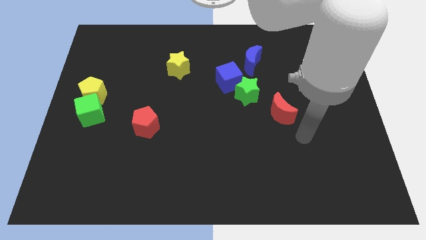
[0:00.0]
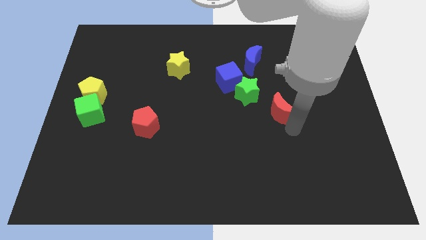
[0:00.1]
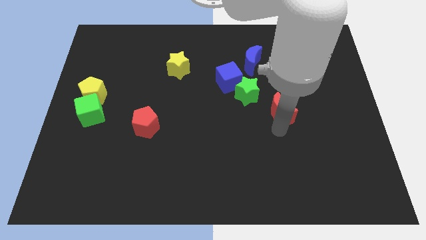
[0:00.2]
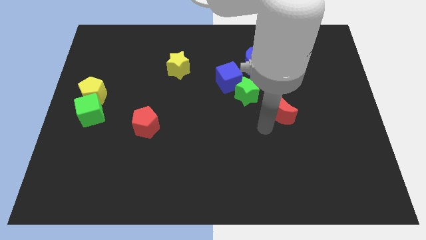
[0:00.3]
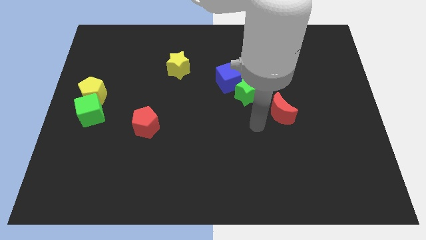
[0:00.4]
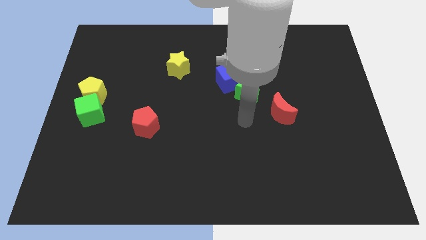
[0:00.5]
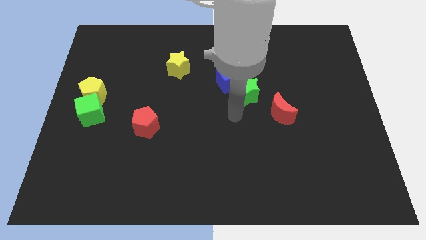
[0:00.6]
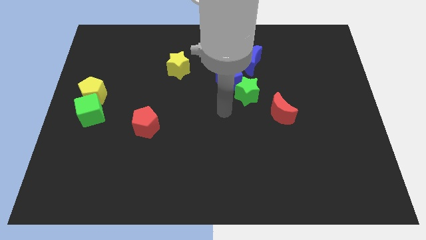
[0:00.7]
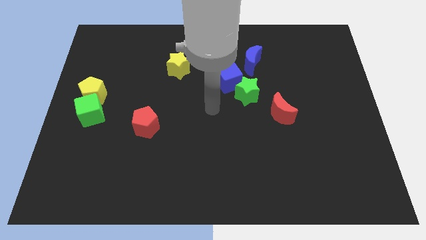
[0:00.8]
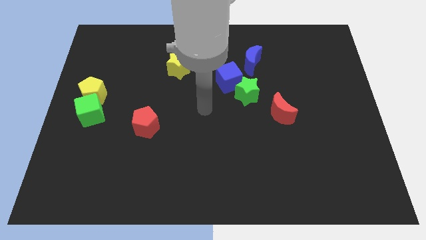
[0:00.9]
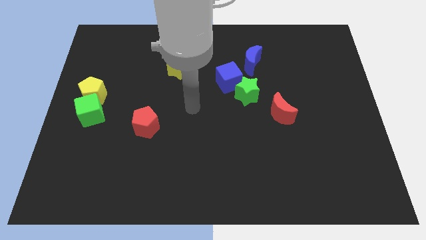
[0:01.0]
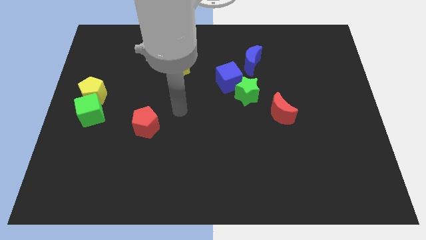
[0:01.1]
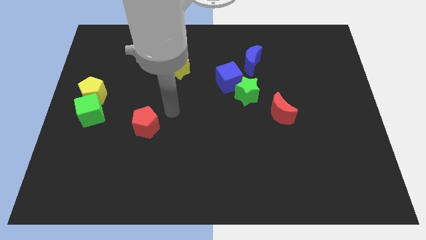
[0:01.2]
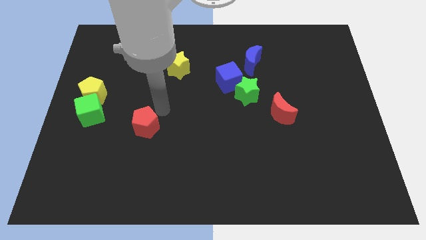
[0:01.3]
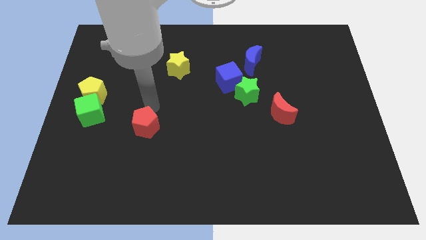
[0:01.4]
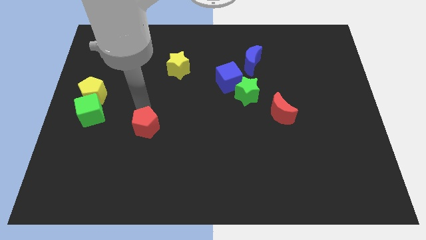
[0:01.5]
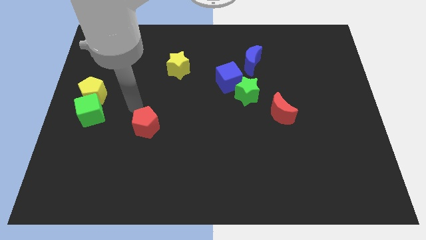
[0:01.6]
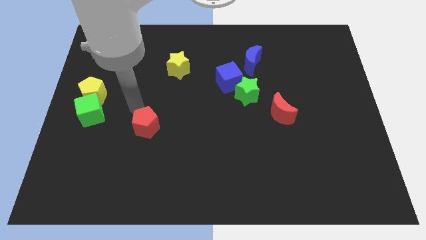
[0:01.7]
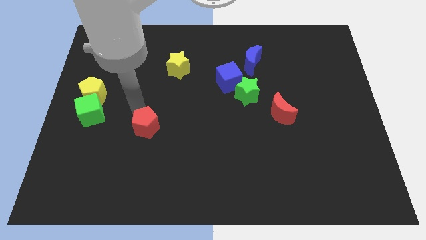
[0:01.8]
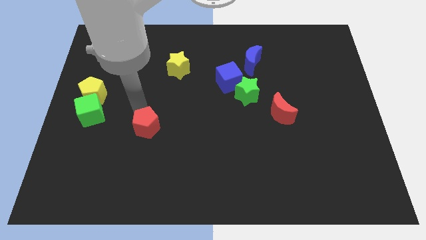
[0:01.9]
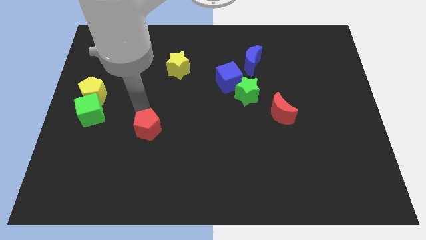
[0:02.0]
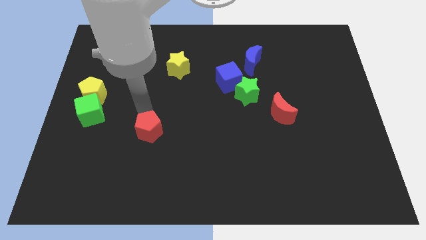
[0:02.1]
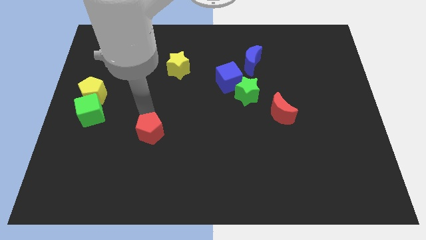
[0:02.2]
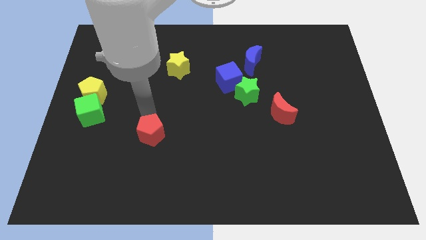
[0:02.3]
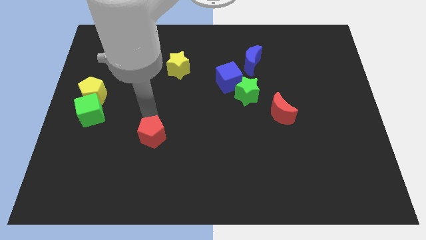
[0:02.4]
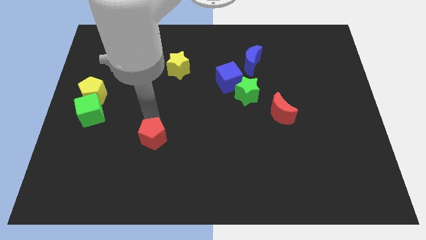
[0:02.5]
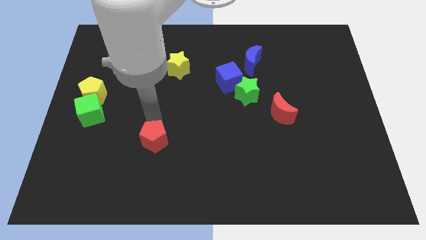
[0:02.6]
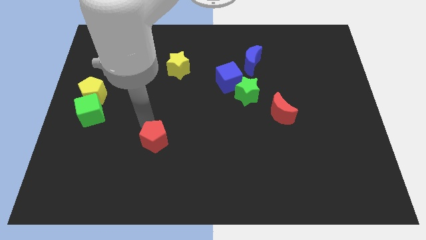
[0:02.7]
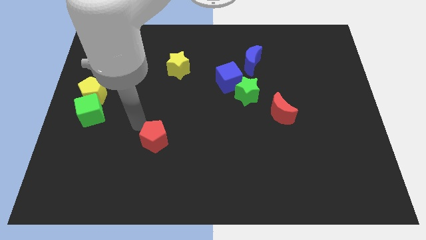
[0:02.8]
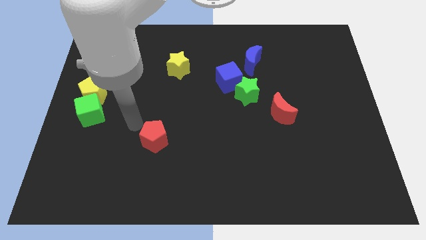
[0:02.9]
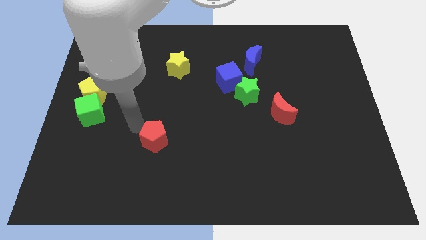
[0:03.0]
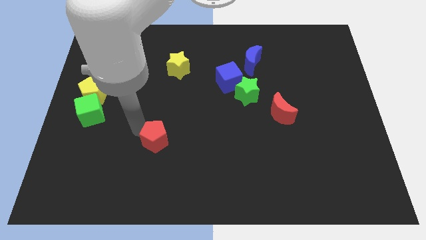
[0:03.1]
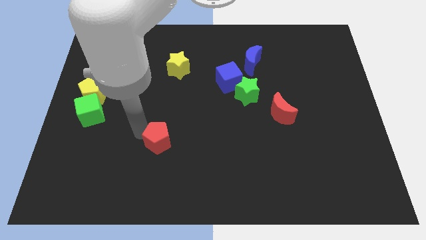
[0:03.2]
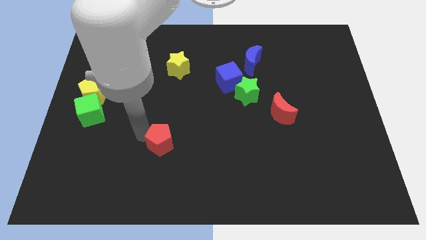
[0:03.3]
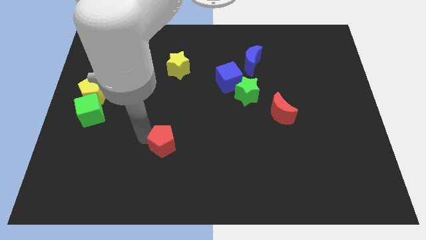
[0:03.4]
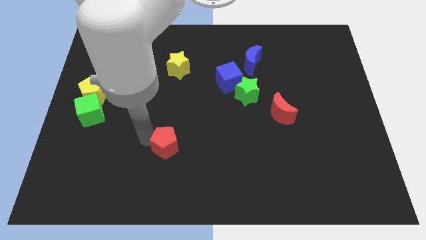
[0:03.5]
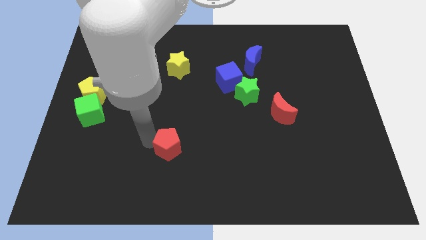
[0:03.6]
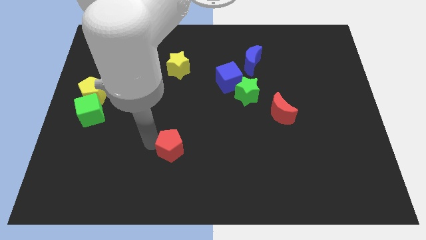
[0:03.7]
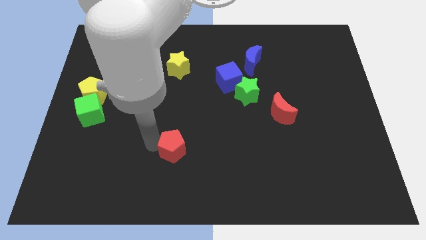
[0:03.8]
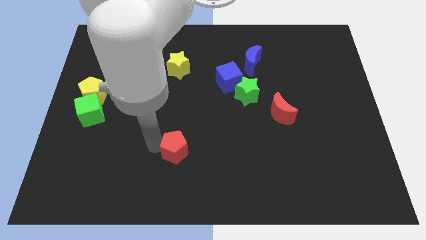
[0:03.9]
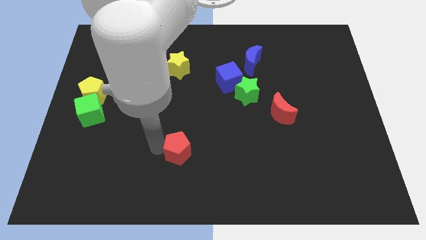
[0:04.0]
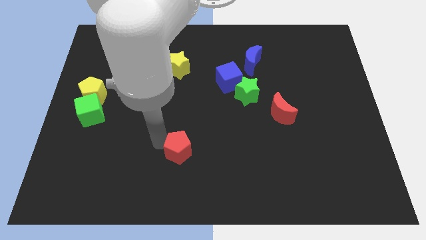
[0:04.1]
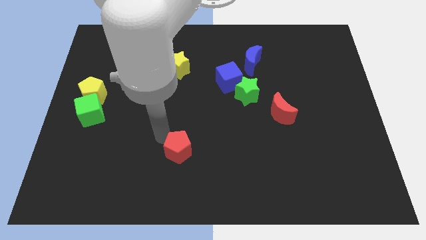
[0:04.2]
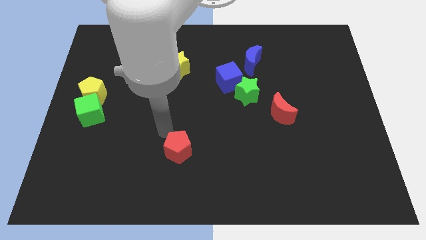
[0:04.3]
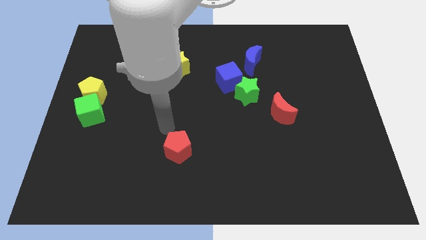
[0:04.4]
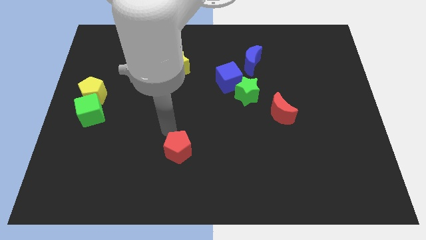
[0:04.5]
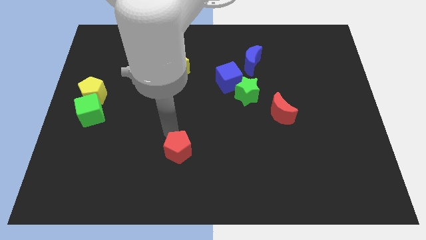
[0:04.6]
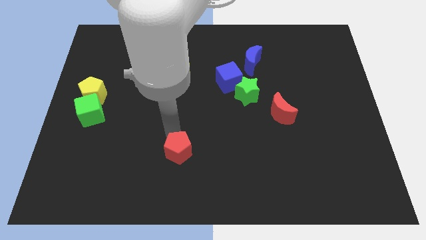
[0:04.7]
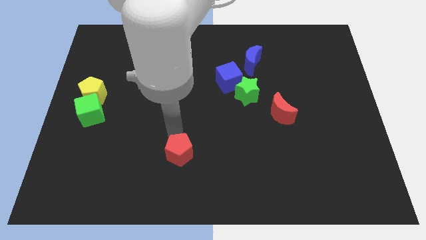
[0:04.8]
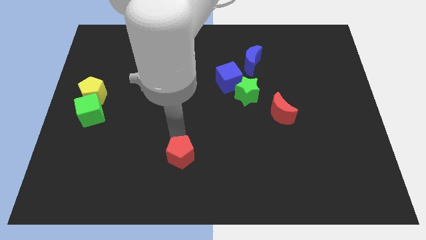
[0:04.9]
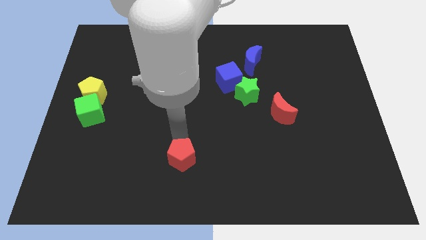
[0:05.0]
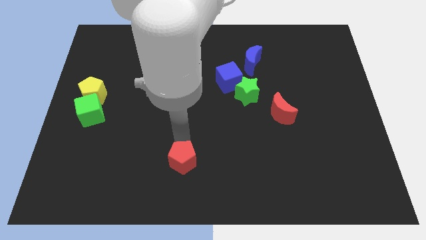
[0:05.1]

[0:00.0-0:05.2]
move the red pentagon to the bottom

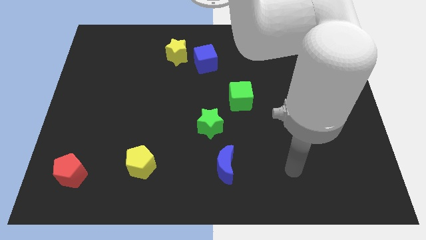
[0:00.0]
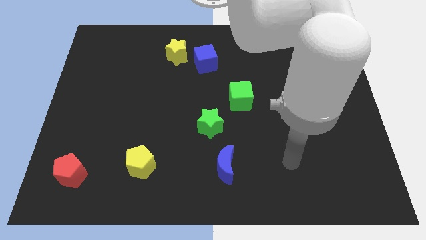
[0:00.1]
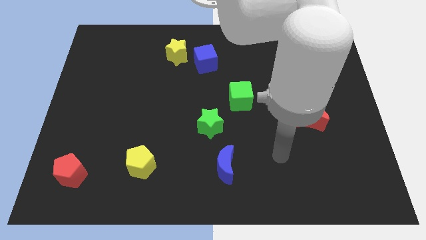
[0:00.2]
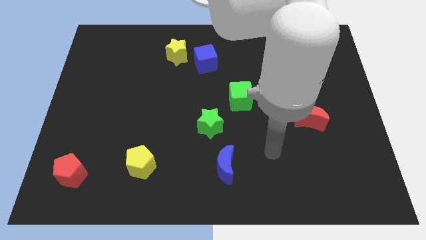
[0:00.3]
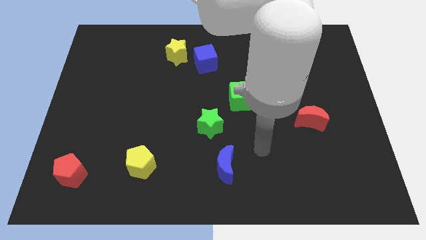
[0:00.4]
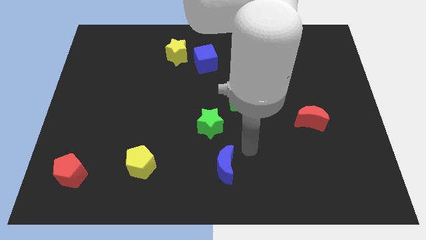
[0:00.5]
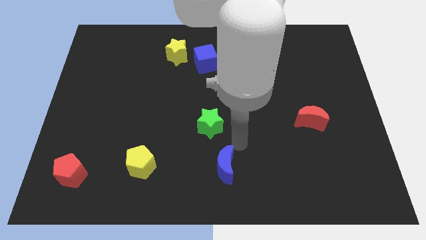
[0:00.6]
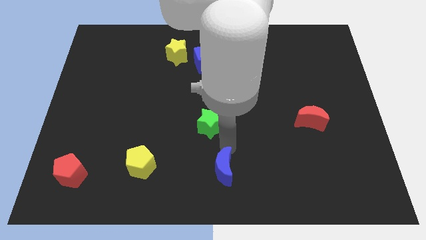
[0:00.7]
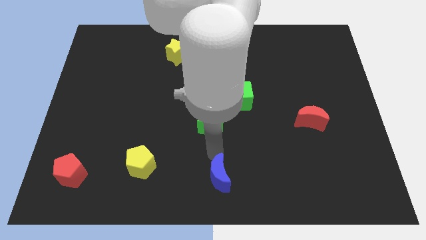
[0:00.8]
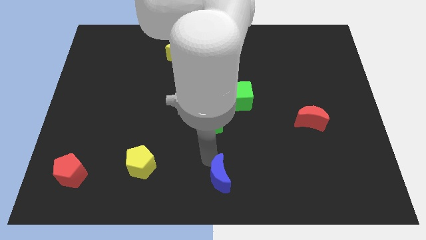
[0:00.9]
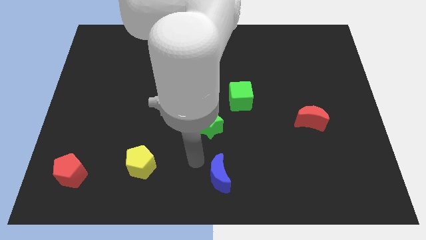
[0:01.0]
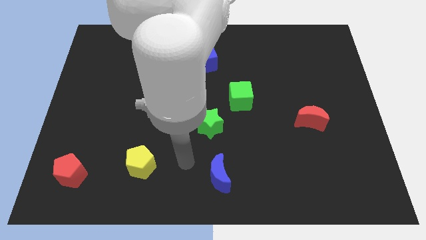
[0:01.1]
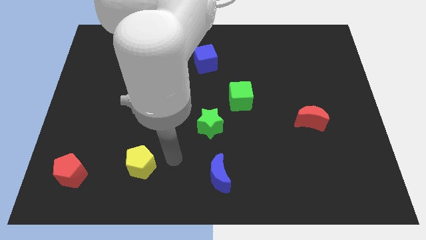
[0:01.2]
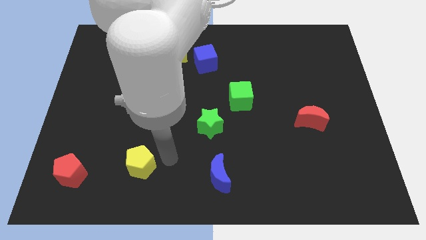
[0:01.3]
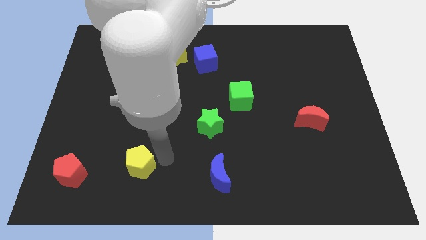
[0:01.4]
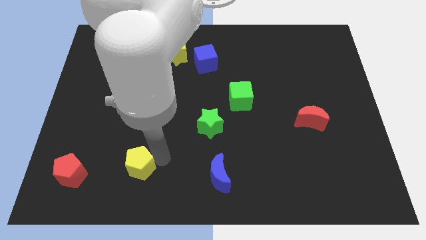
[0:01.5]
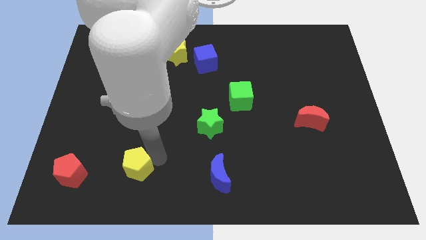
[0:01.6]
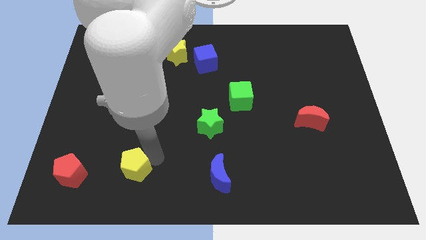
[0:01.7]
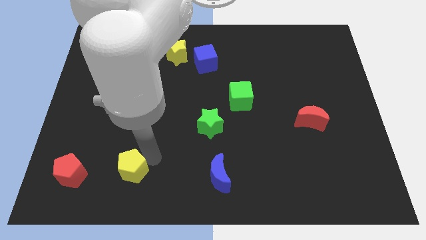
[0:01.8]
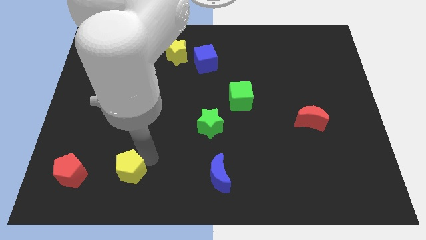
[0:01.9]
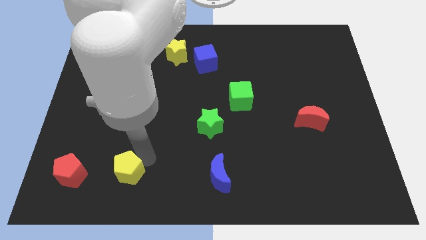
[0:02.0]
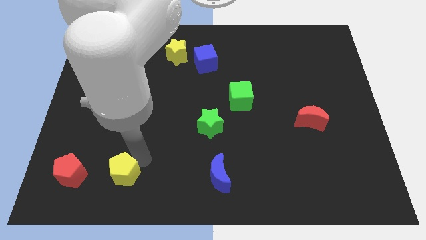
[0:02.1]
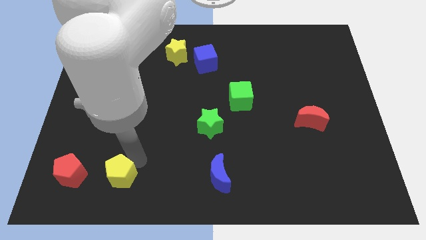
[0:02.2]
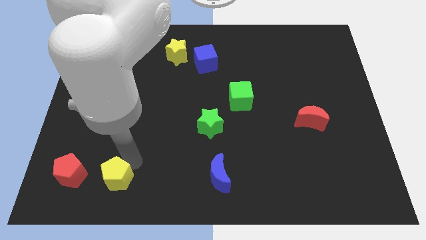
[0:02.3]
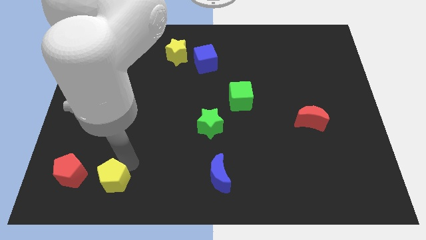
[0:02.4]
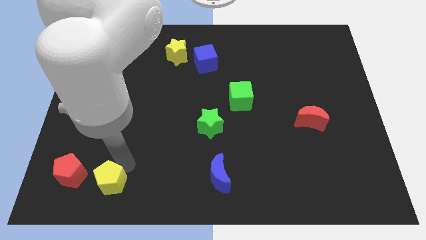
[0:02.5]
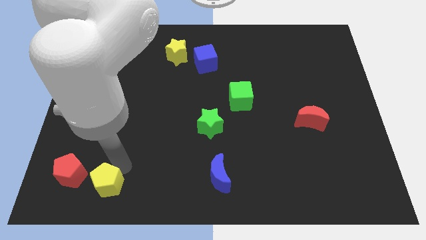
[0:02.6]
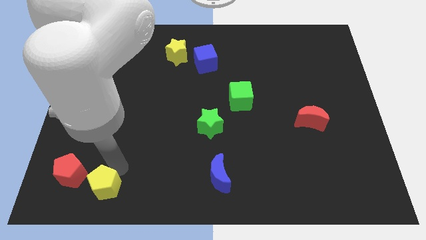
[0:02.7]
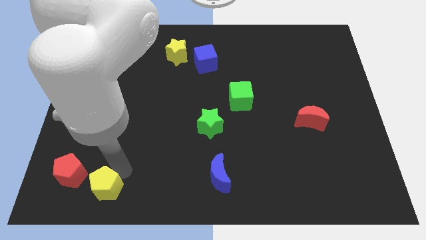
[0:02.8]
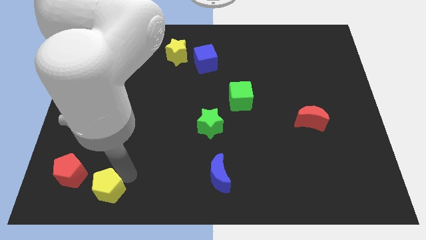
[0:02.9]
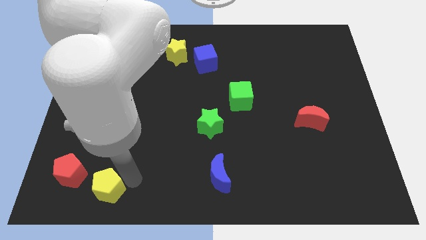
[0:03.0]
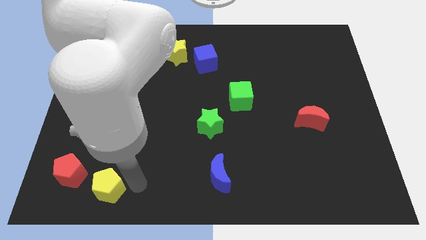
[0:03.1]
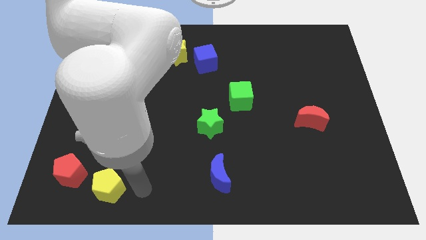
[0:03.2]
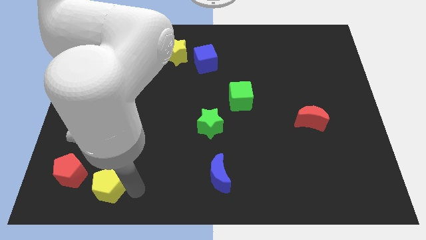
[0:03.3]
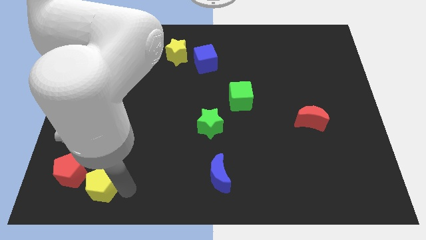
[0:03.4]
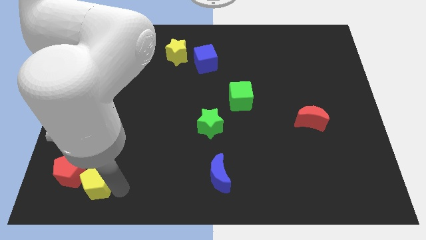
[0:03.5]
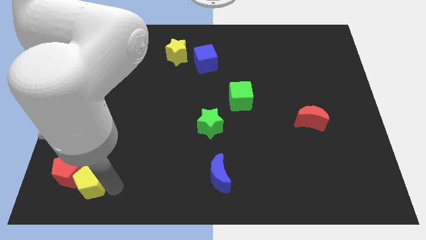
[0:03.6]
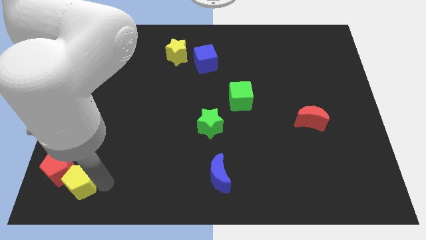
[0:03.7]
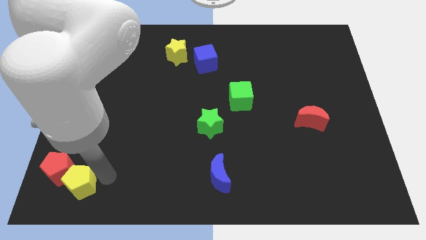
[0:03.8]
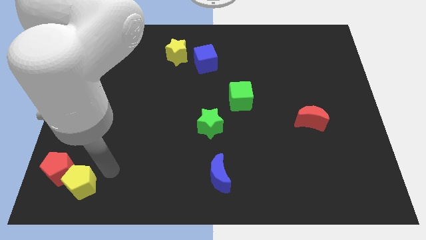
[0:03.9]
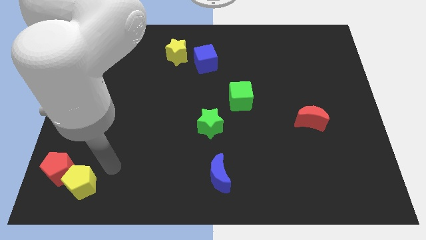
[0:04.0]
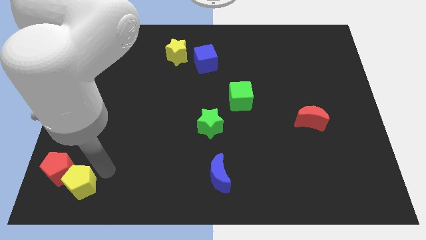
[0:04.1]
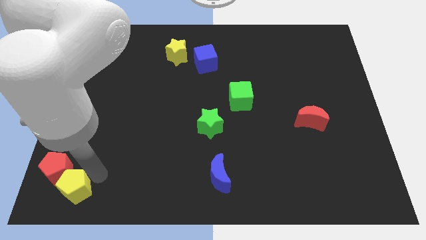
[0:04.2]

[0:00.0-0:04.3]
slide the yellow pentagon to the bottom left corner
